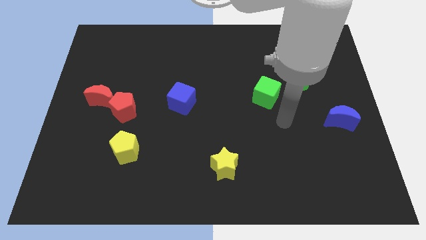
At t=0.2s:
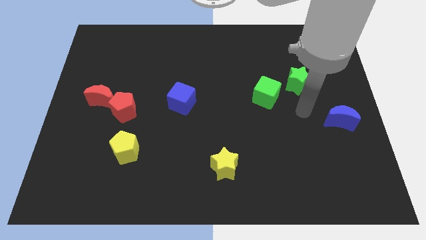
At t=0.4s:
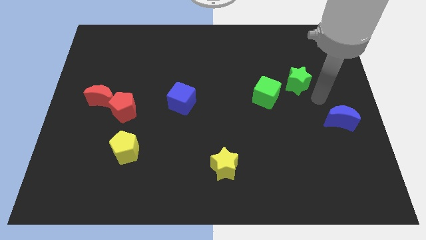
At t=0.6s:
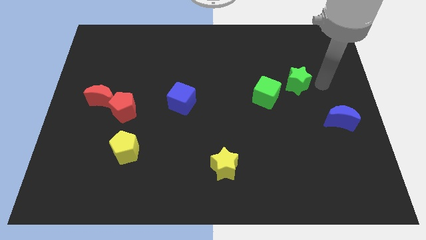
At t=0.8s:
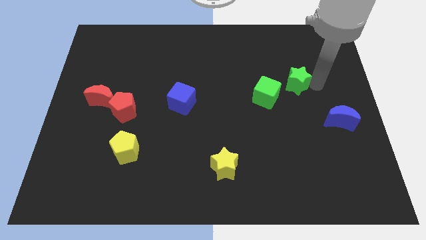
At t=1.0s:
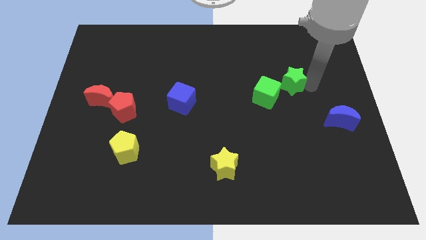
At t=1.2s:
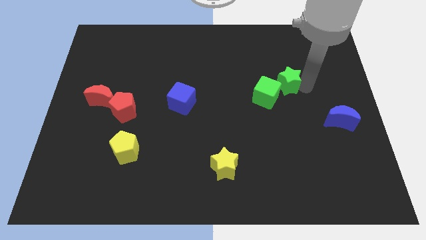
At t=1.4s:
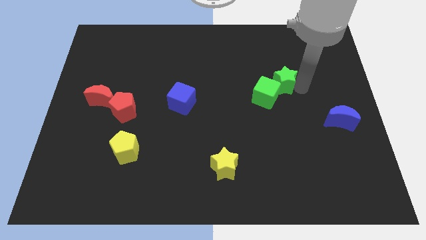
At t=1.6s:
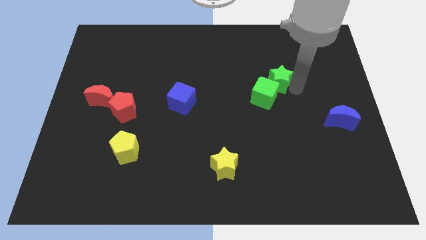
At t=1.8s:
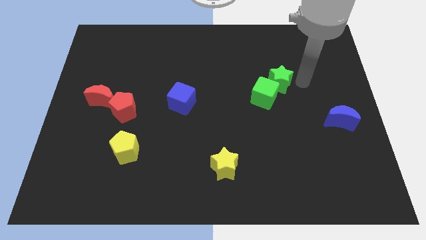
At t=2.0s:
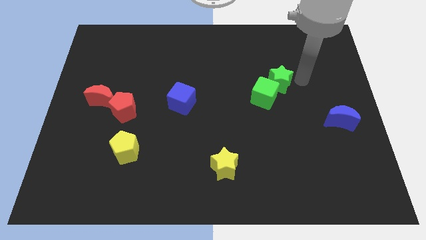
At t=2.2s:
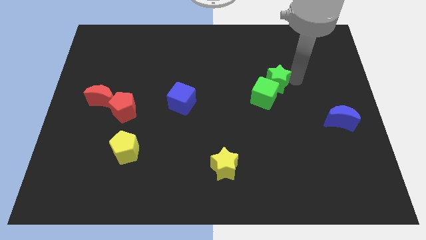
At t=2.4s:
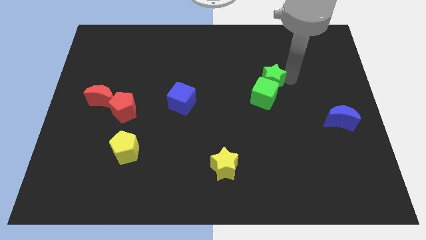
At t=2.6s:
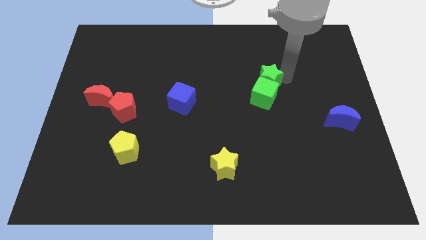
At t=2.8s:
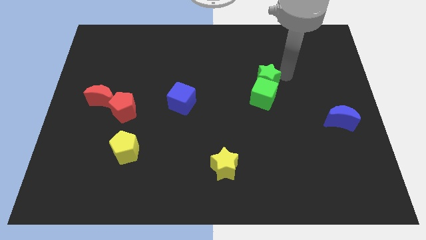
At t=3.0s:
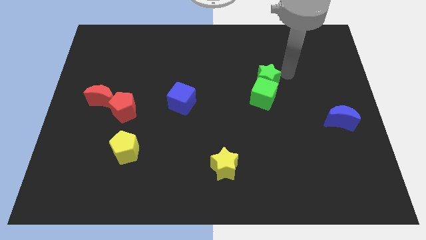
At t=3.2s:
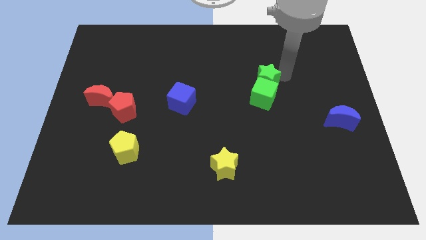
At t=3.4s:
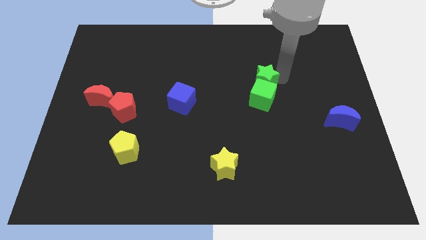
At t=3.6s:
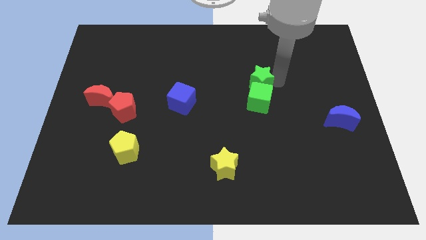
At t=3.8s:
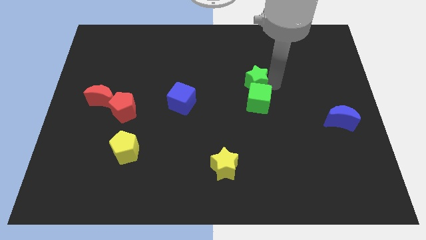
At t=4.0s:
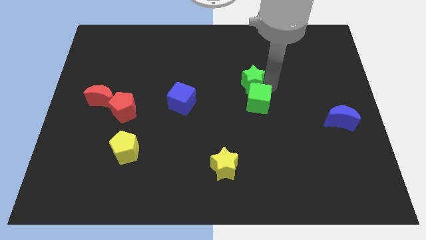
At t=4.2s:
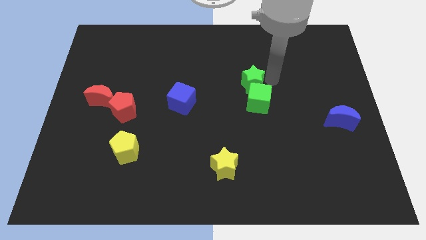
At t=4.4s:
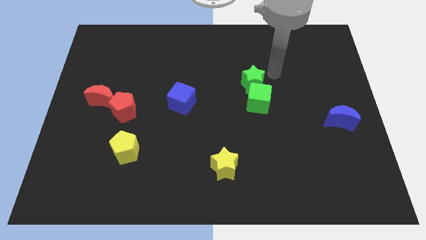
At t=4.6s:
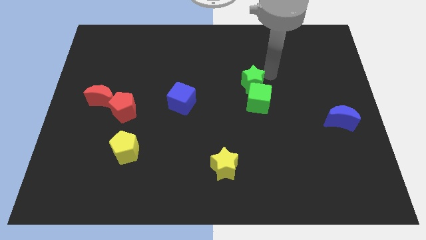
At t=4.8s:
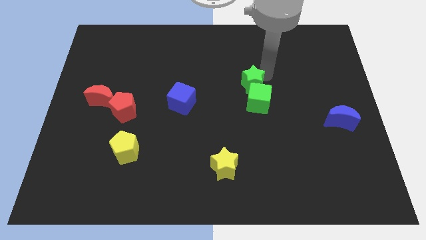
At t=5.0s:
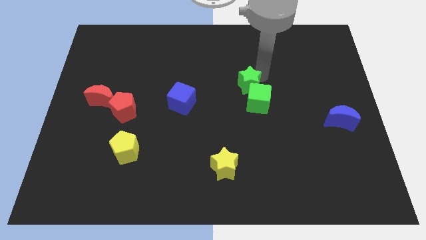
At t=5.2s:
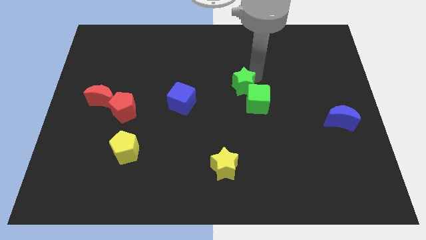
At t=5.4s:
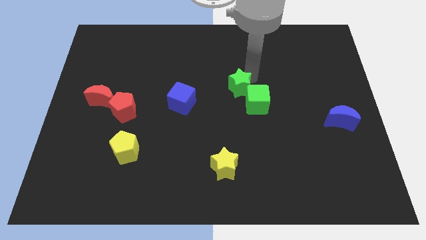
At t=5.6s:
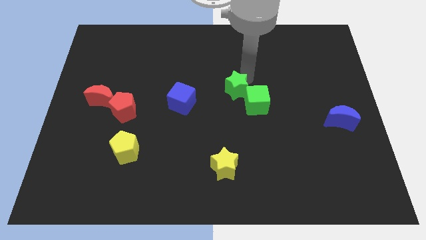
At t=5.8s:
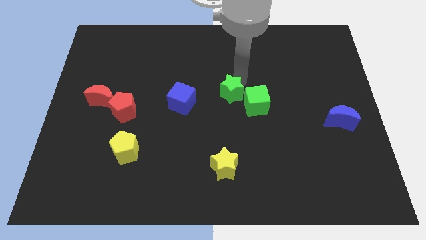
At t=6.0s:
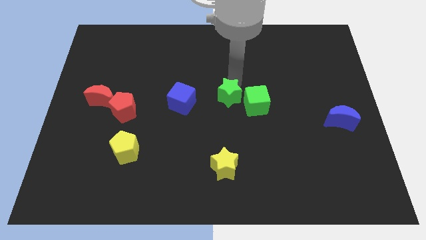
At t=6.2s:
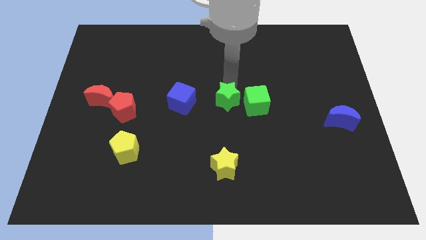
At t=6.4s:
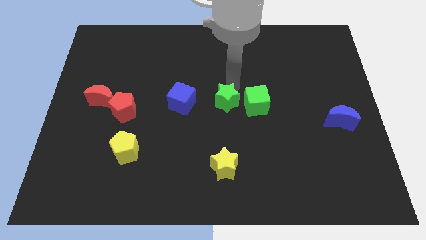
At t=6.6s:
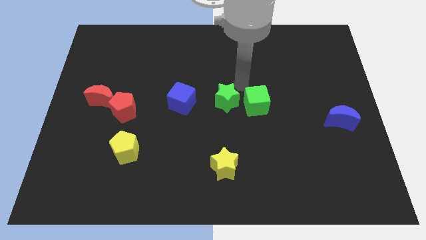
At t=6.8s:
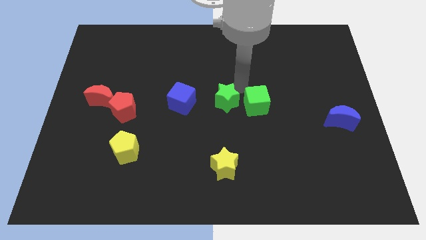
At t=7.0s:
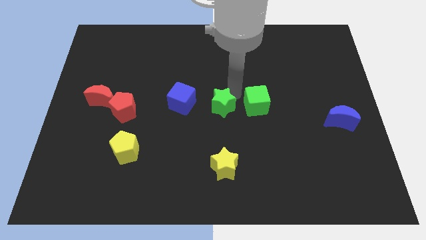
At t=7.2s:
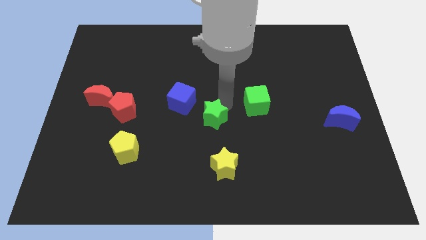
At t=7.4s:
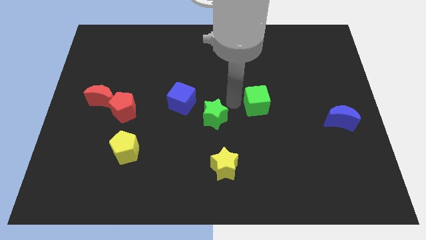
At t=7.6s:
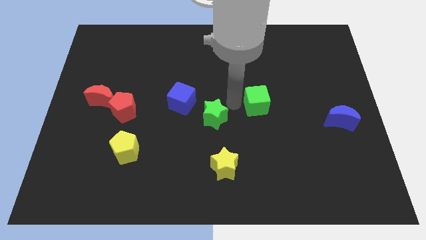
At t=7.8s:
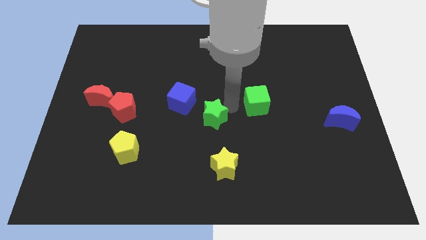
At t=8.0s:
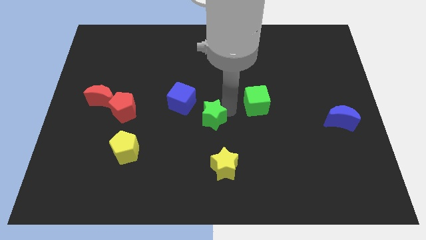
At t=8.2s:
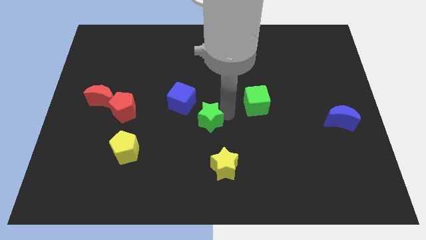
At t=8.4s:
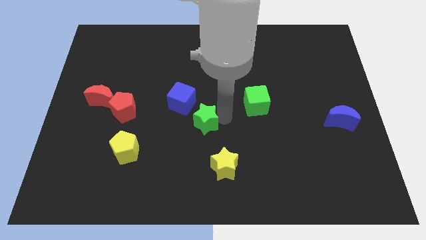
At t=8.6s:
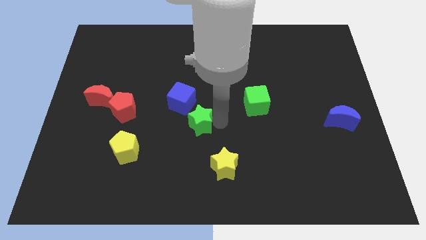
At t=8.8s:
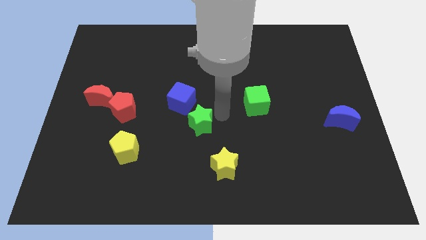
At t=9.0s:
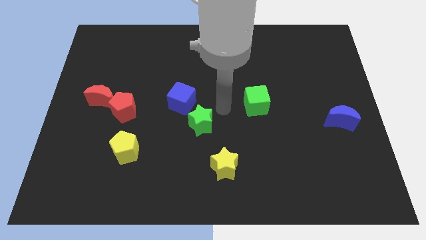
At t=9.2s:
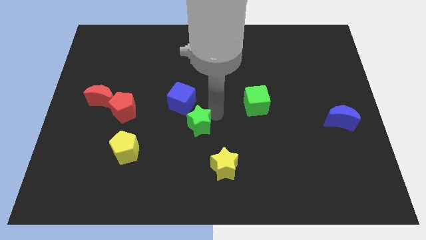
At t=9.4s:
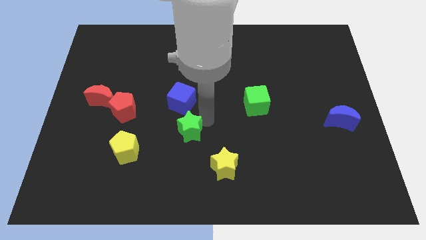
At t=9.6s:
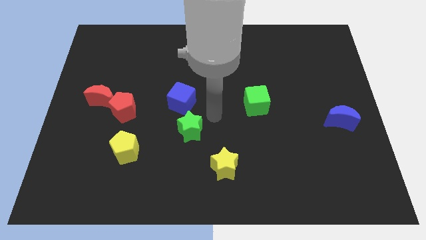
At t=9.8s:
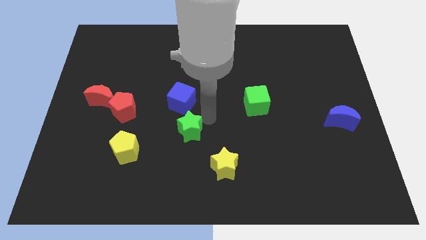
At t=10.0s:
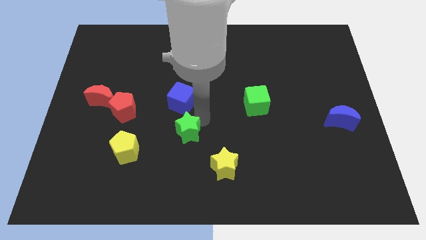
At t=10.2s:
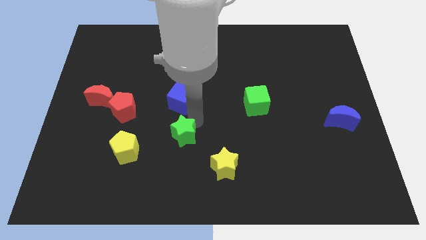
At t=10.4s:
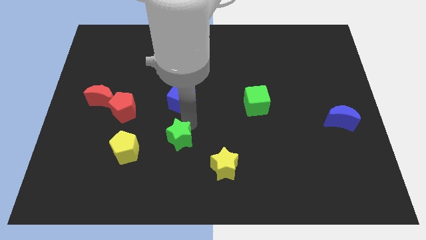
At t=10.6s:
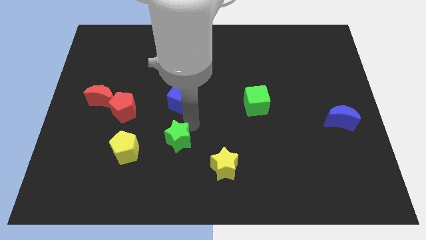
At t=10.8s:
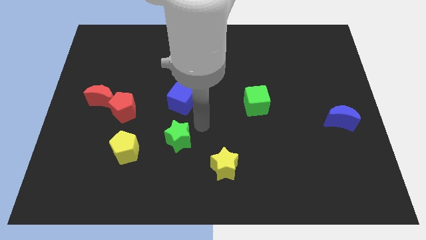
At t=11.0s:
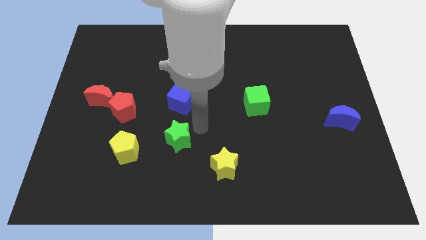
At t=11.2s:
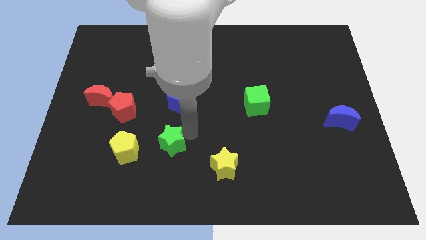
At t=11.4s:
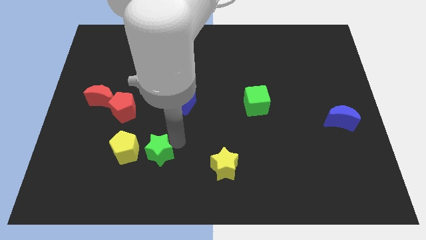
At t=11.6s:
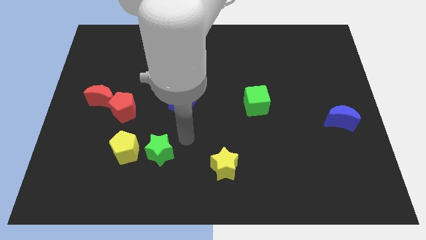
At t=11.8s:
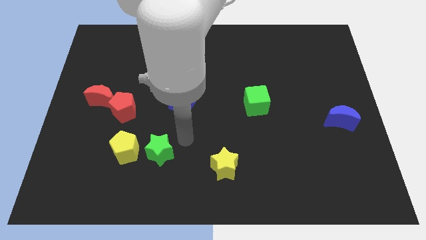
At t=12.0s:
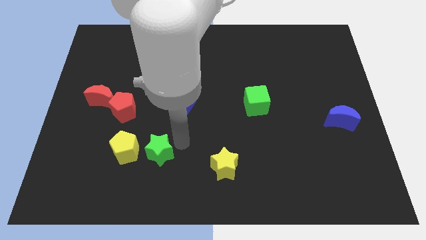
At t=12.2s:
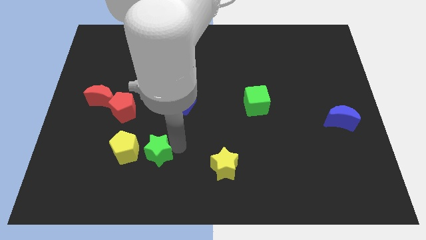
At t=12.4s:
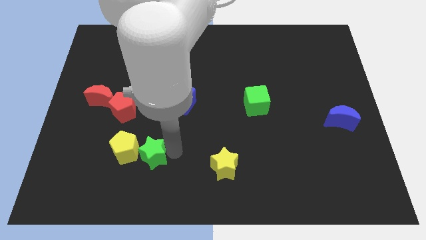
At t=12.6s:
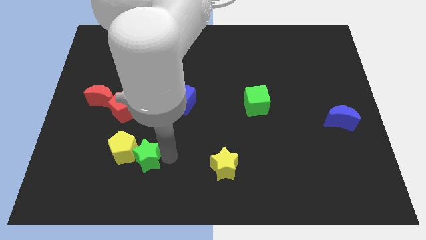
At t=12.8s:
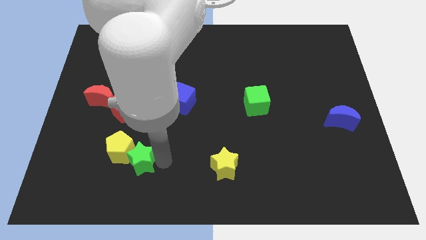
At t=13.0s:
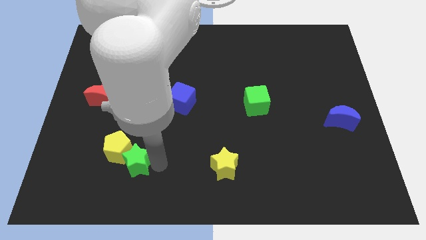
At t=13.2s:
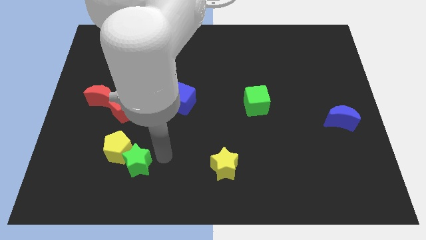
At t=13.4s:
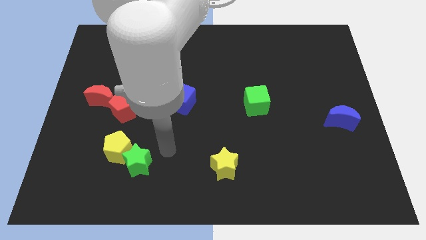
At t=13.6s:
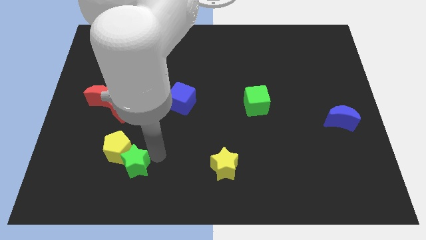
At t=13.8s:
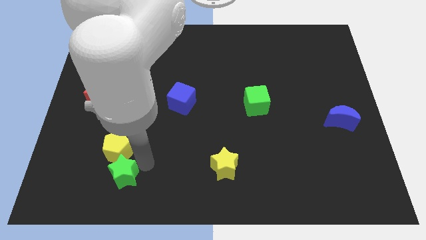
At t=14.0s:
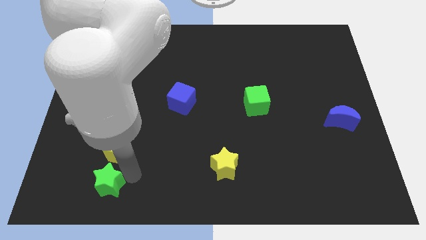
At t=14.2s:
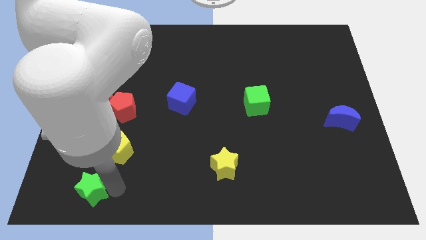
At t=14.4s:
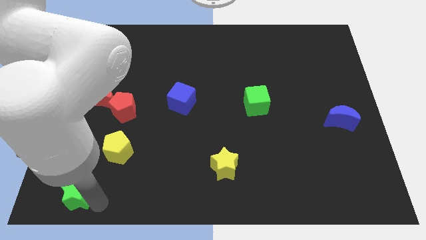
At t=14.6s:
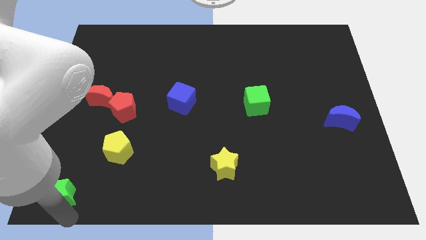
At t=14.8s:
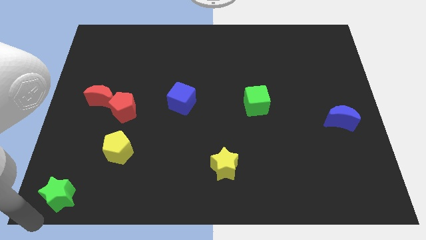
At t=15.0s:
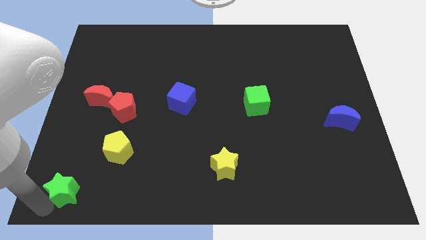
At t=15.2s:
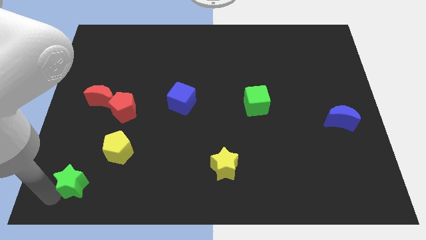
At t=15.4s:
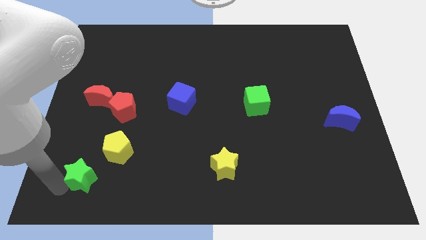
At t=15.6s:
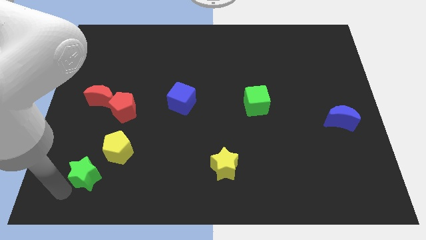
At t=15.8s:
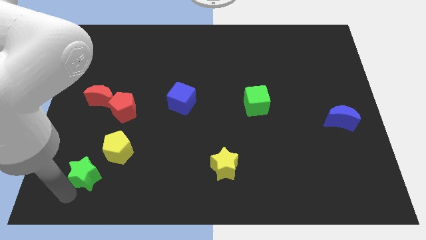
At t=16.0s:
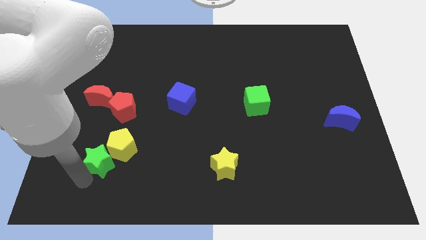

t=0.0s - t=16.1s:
move the green star to the bottom side of the red pentagon

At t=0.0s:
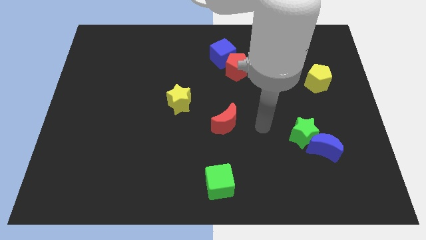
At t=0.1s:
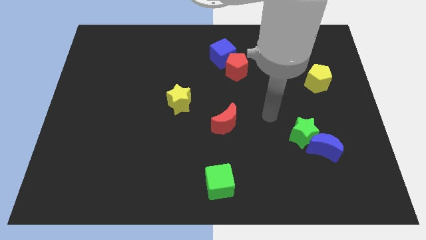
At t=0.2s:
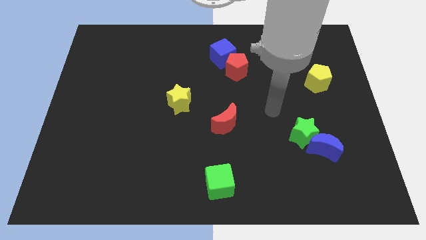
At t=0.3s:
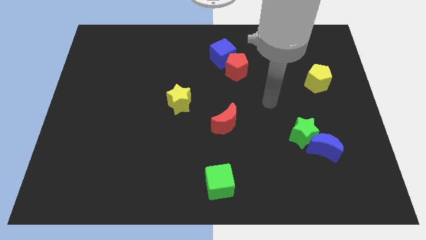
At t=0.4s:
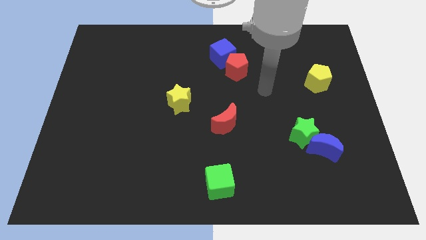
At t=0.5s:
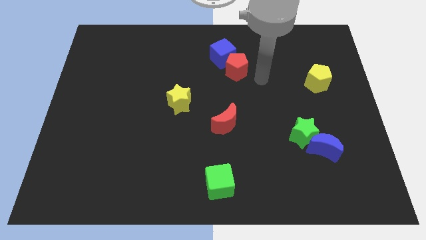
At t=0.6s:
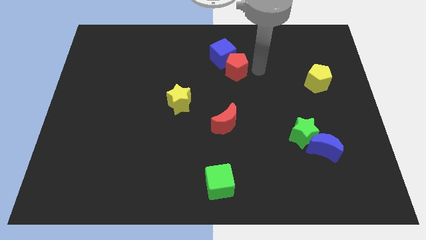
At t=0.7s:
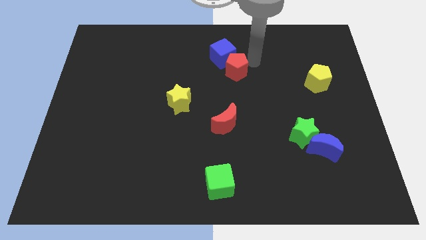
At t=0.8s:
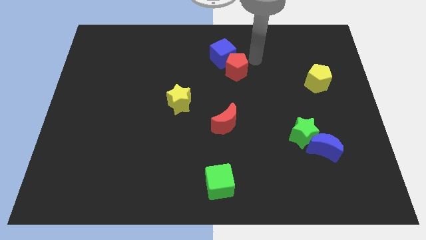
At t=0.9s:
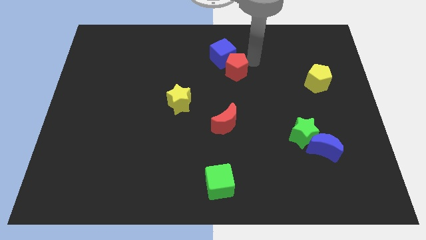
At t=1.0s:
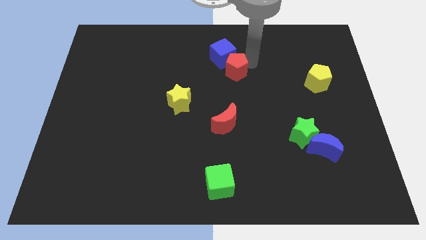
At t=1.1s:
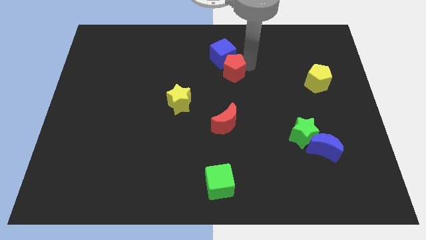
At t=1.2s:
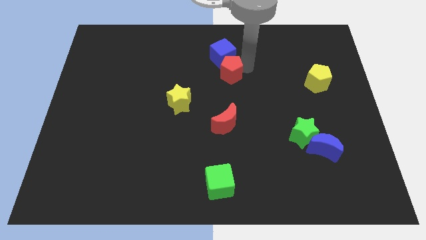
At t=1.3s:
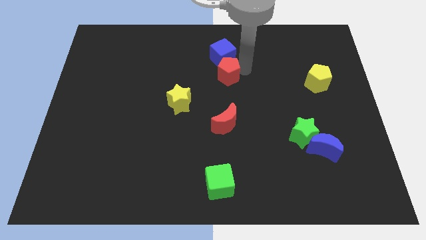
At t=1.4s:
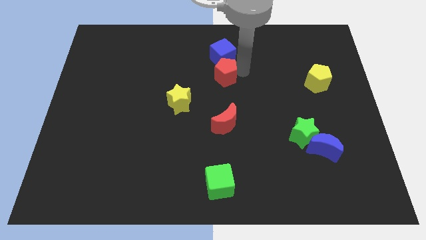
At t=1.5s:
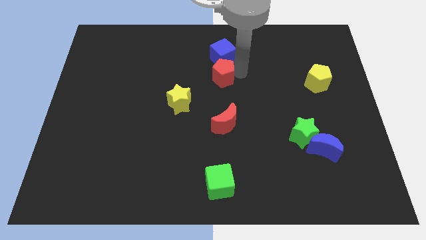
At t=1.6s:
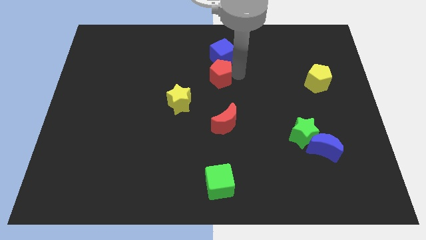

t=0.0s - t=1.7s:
put the red pentagon diagonally up and to the right of the yellow star
